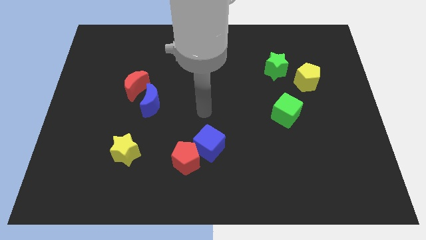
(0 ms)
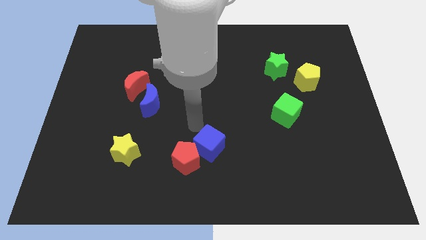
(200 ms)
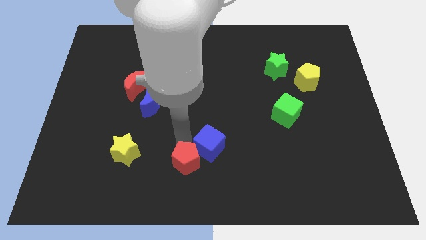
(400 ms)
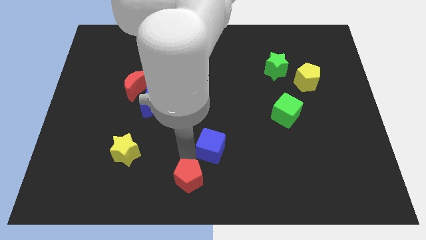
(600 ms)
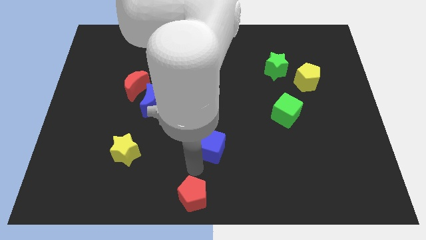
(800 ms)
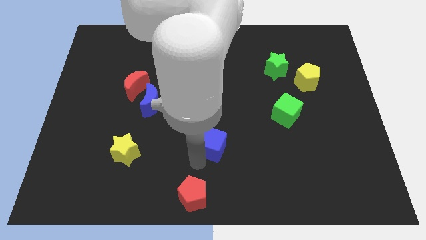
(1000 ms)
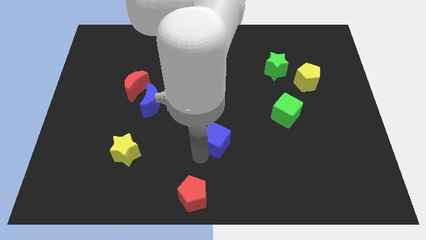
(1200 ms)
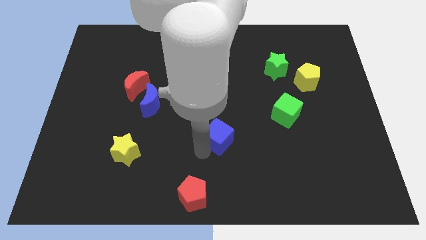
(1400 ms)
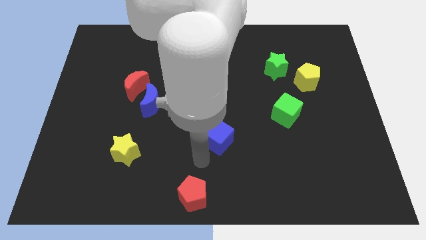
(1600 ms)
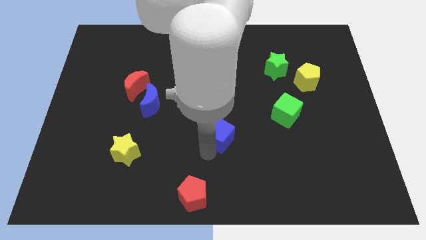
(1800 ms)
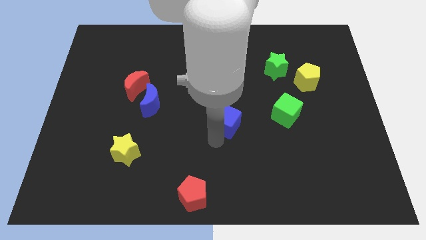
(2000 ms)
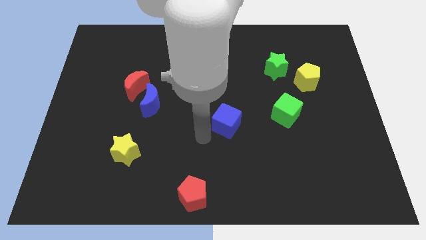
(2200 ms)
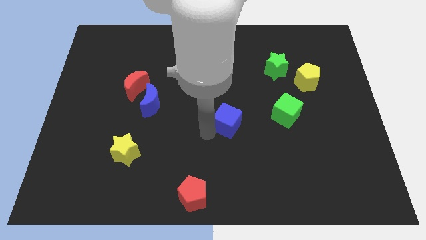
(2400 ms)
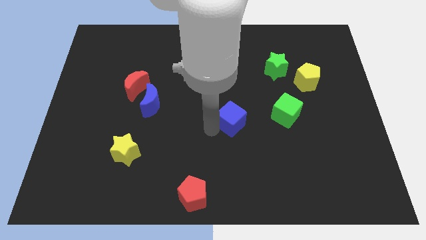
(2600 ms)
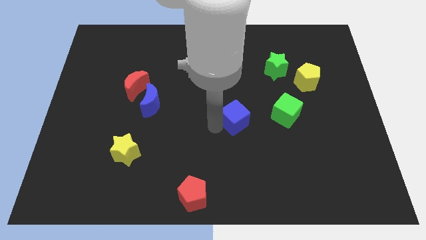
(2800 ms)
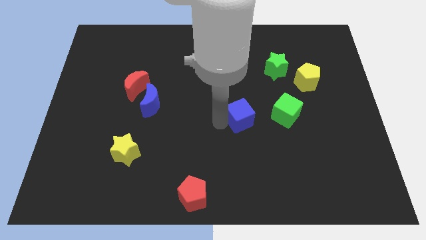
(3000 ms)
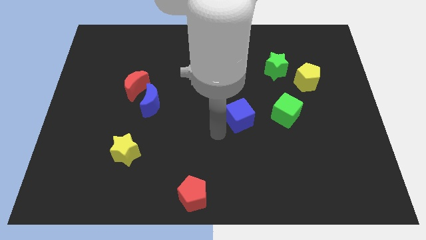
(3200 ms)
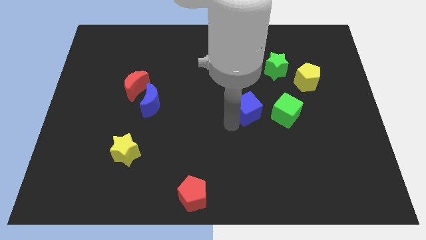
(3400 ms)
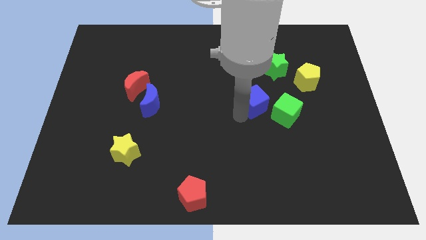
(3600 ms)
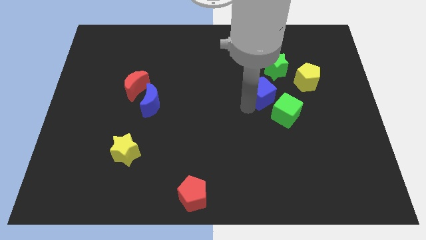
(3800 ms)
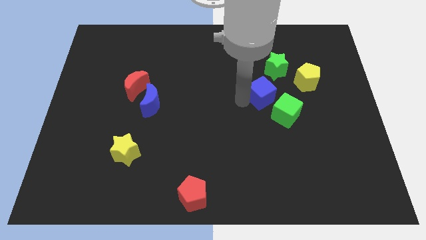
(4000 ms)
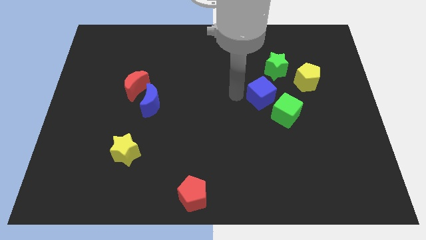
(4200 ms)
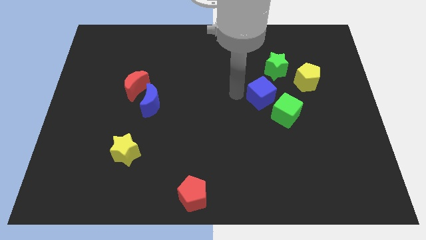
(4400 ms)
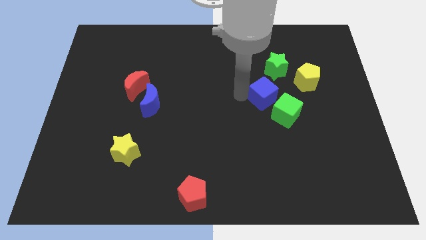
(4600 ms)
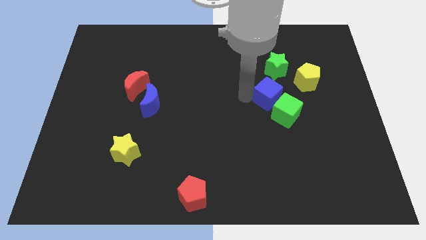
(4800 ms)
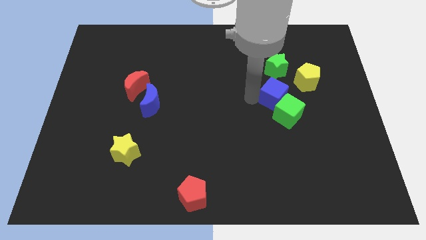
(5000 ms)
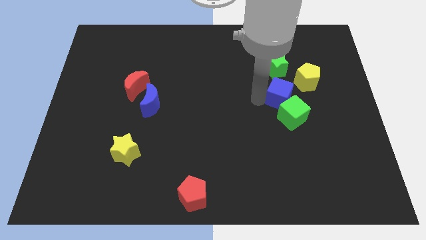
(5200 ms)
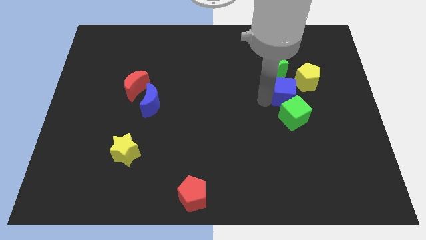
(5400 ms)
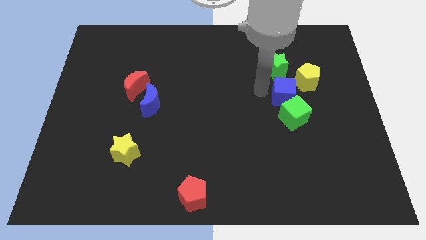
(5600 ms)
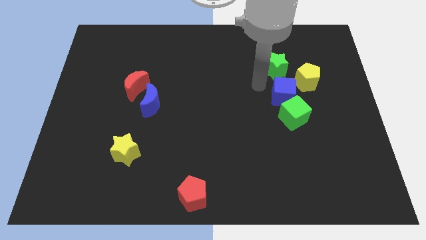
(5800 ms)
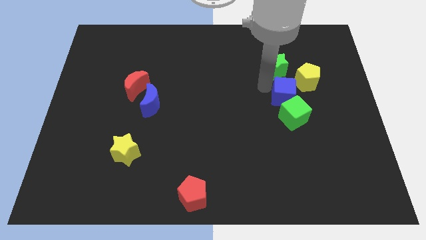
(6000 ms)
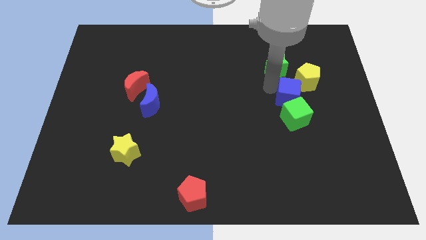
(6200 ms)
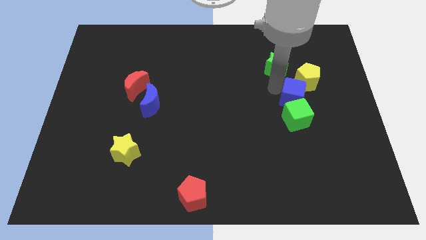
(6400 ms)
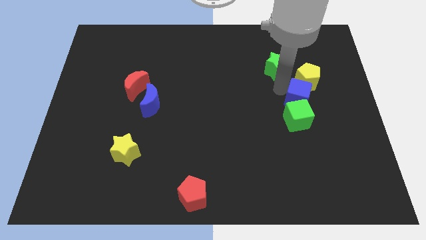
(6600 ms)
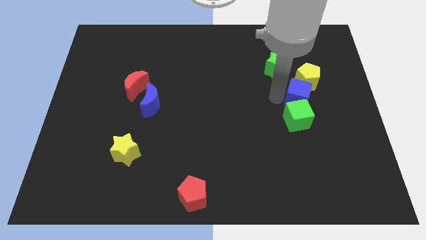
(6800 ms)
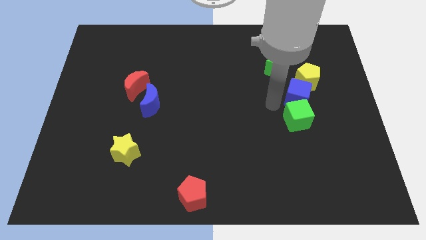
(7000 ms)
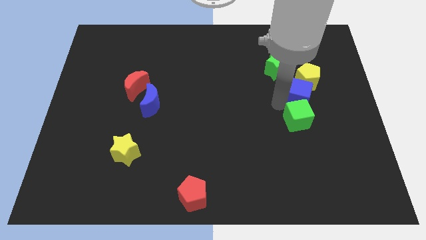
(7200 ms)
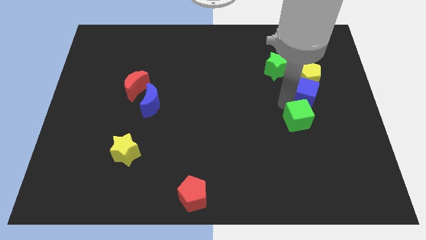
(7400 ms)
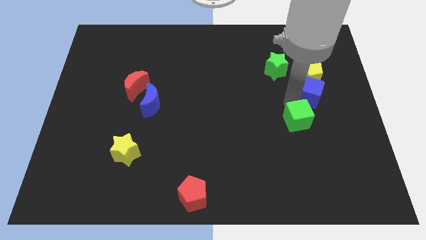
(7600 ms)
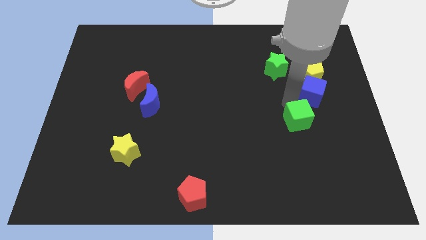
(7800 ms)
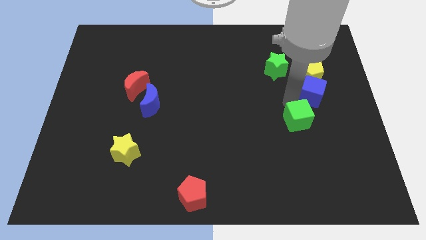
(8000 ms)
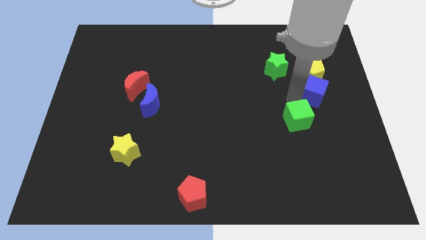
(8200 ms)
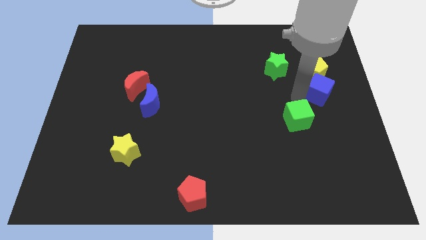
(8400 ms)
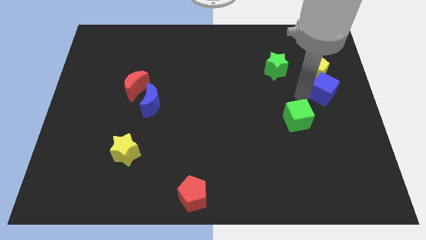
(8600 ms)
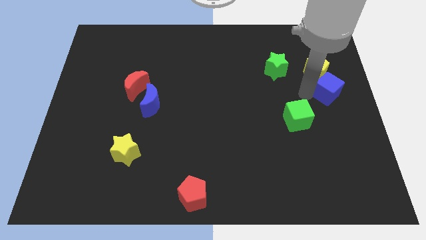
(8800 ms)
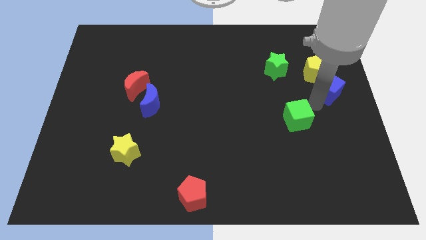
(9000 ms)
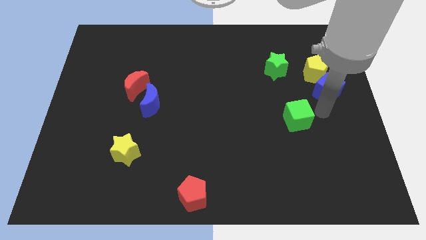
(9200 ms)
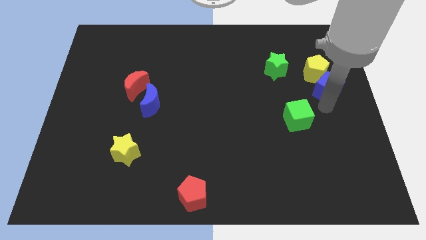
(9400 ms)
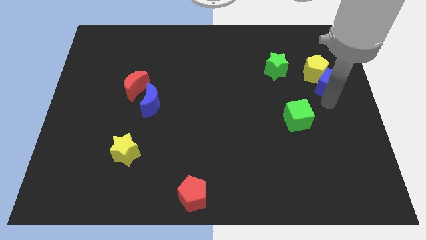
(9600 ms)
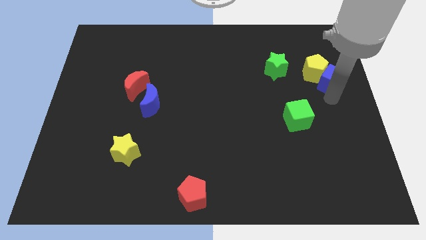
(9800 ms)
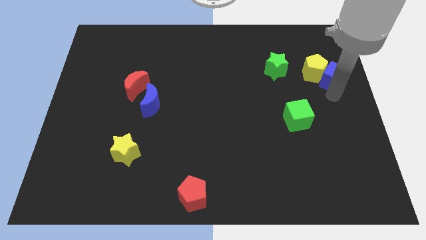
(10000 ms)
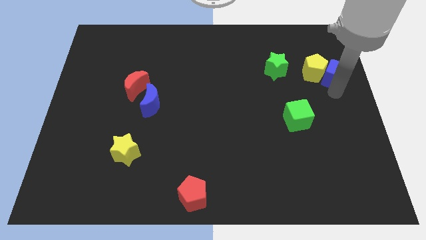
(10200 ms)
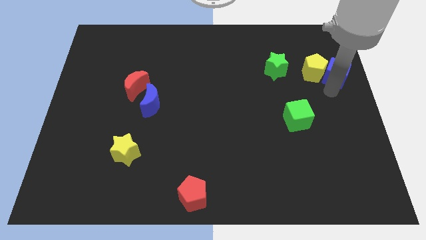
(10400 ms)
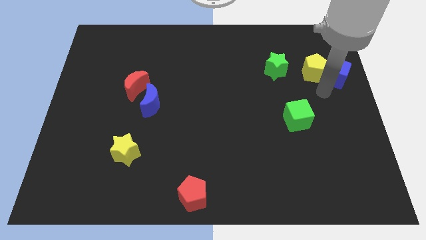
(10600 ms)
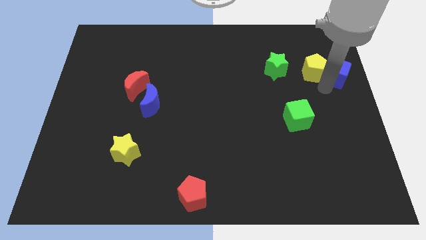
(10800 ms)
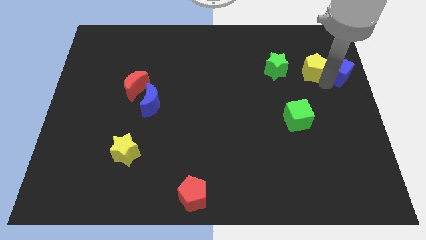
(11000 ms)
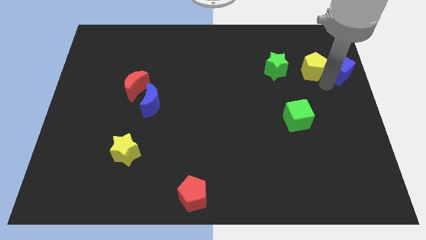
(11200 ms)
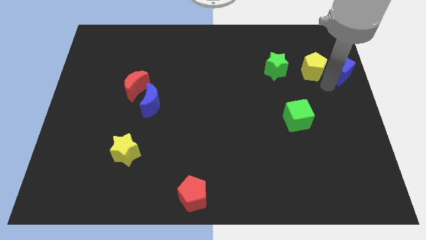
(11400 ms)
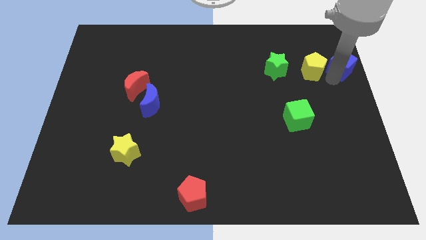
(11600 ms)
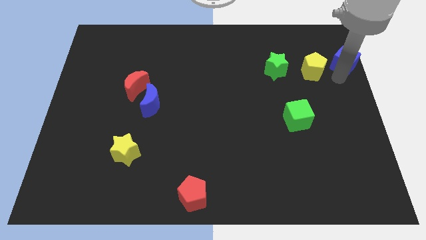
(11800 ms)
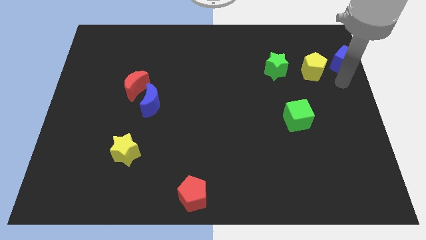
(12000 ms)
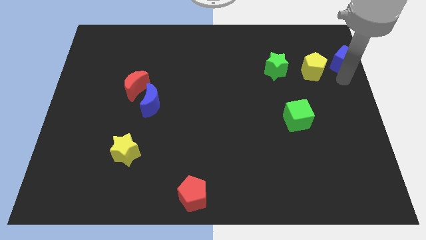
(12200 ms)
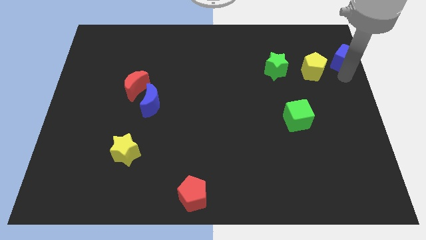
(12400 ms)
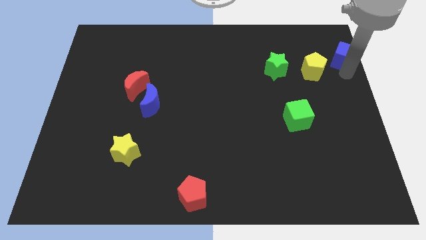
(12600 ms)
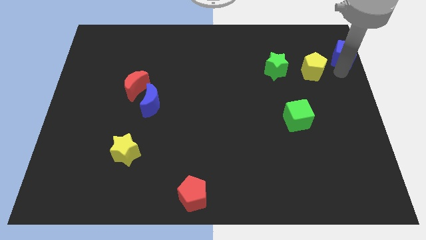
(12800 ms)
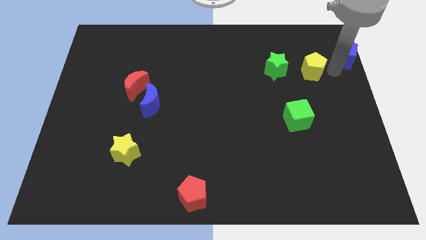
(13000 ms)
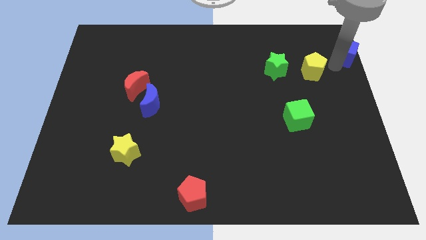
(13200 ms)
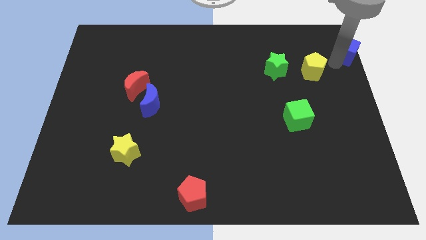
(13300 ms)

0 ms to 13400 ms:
slide the blue cube to the top right corner
